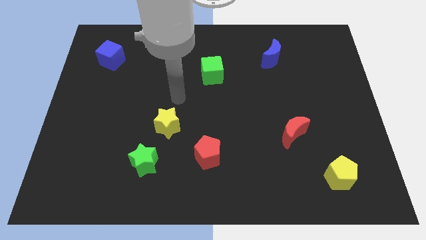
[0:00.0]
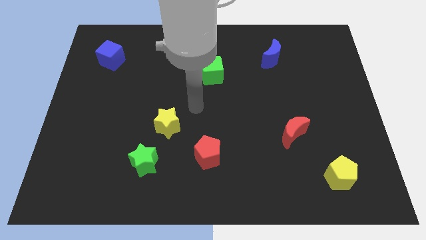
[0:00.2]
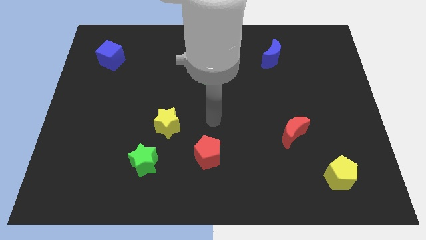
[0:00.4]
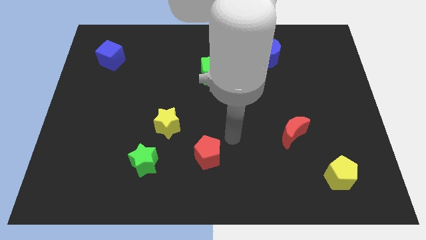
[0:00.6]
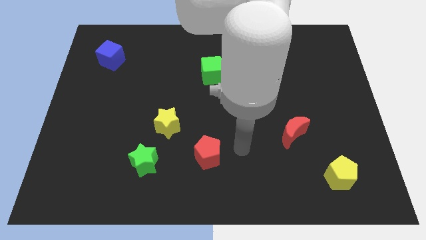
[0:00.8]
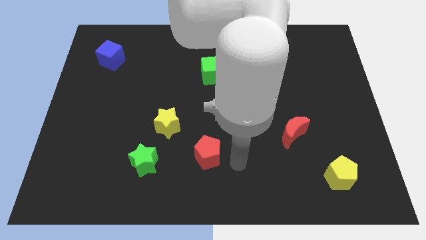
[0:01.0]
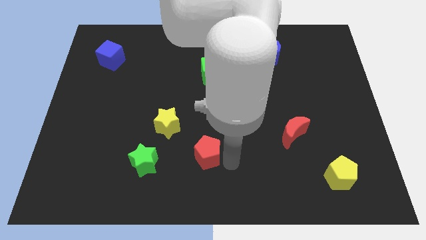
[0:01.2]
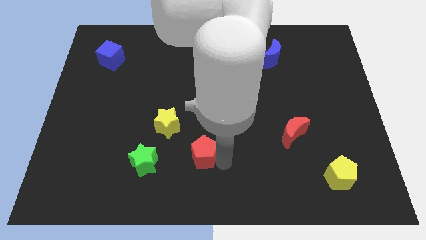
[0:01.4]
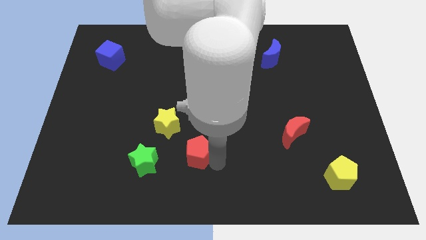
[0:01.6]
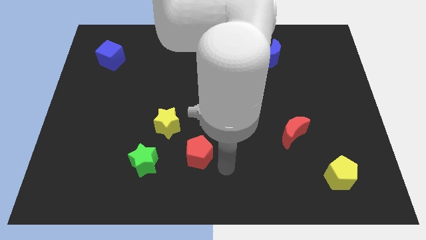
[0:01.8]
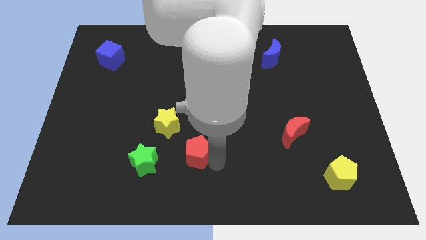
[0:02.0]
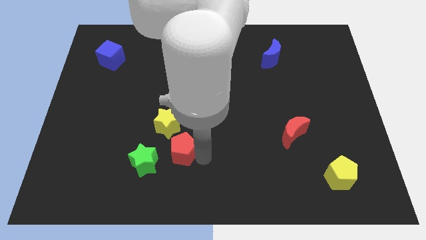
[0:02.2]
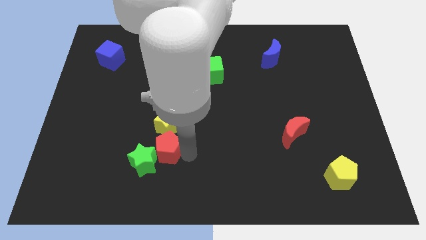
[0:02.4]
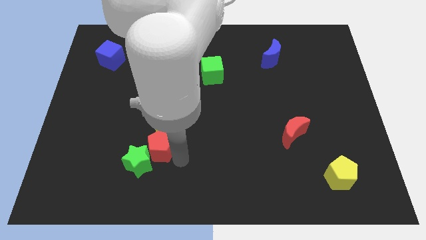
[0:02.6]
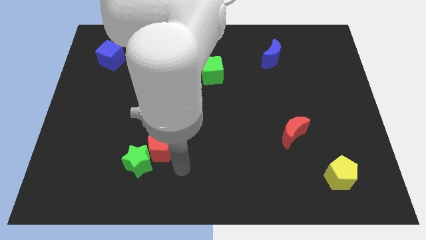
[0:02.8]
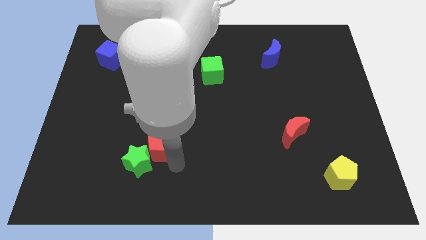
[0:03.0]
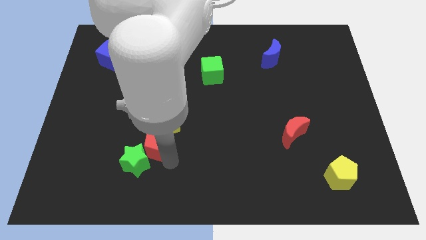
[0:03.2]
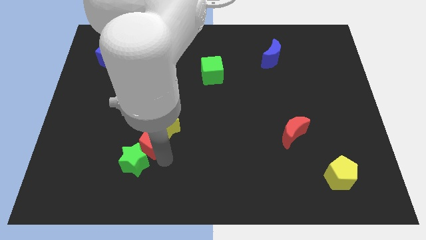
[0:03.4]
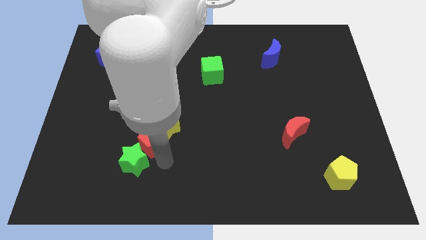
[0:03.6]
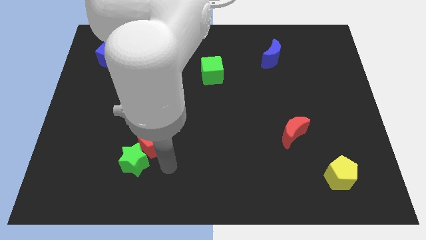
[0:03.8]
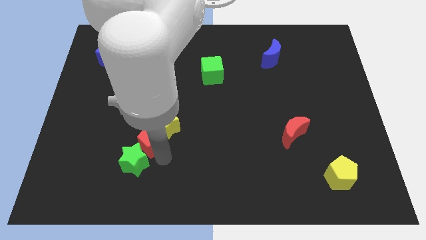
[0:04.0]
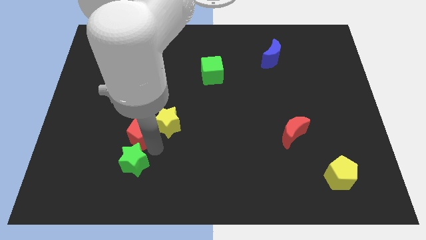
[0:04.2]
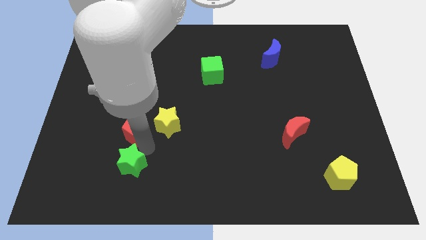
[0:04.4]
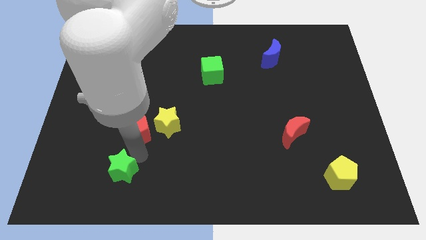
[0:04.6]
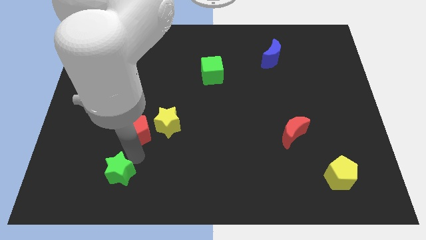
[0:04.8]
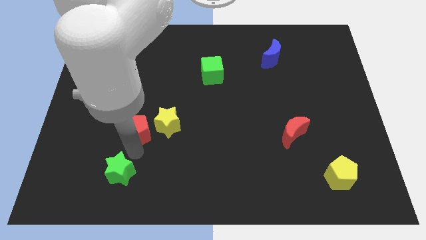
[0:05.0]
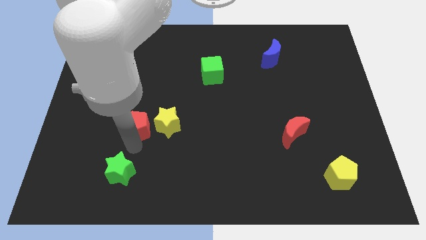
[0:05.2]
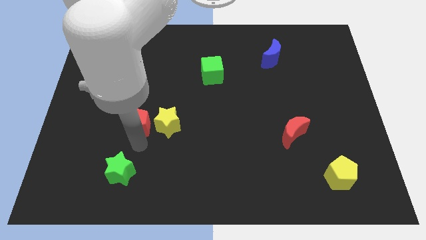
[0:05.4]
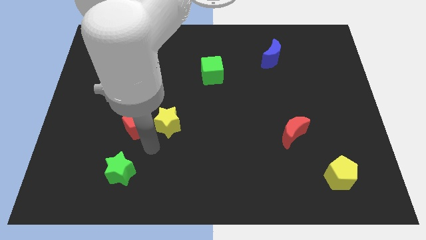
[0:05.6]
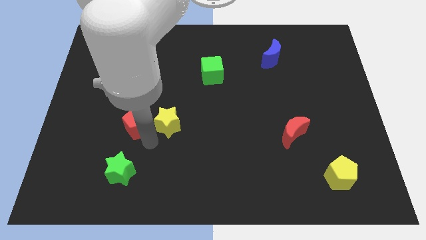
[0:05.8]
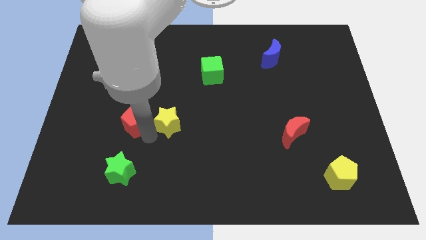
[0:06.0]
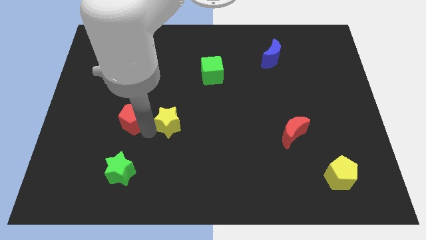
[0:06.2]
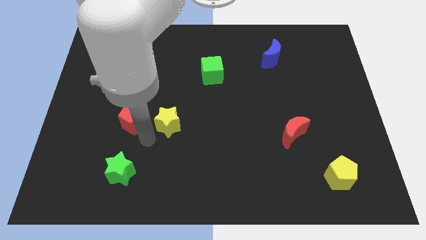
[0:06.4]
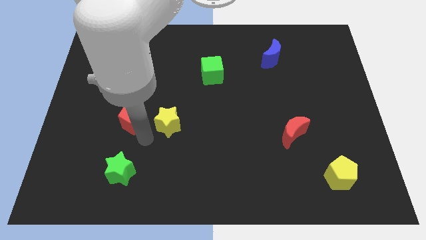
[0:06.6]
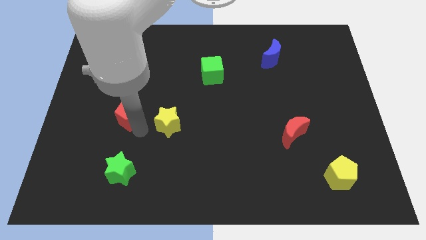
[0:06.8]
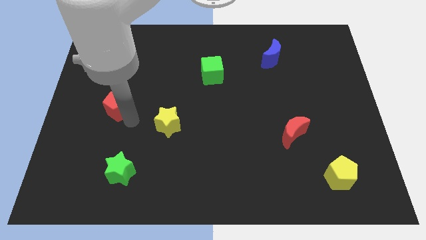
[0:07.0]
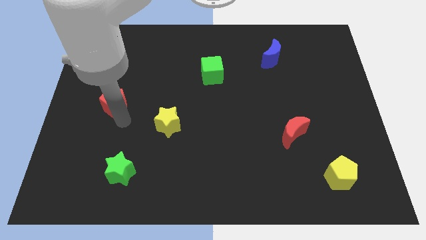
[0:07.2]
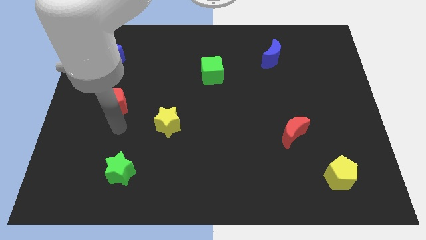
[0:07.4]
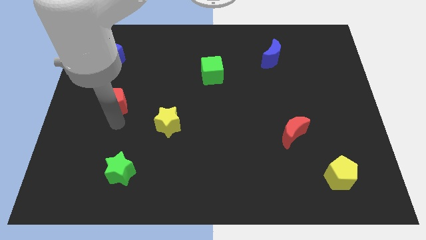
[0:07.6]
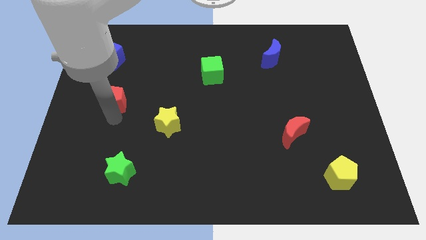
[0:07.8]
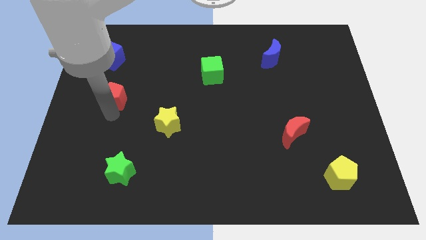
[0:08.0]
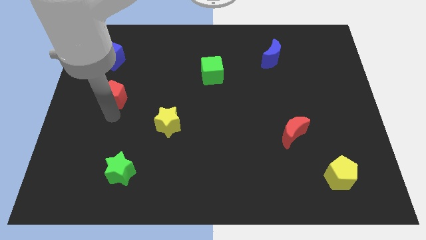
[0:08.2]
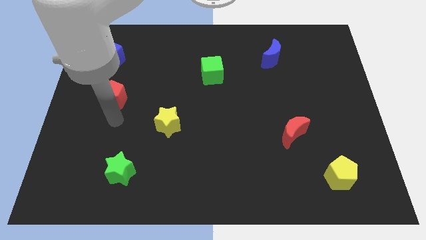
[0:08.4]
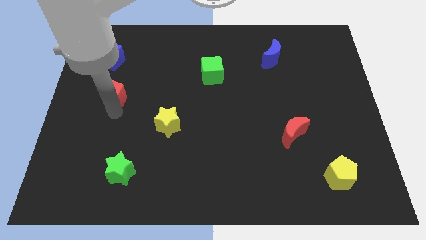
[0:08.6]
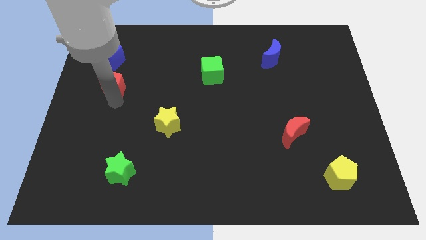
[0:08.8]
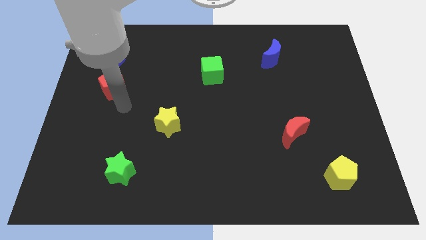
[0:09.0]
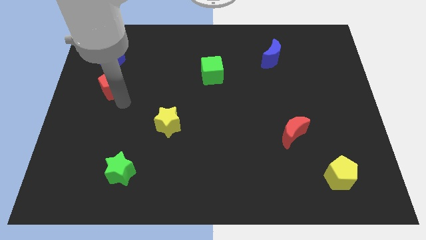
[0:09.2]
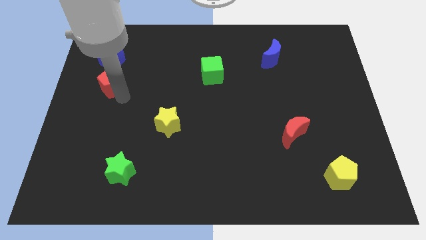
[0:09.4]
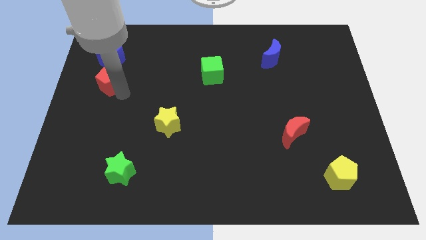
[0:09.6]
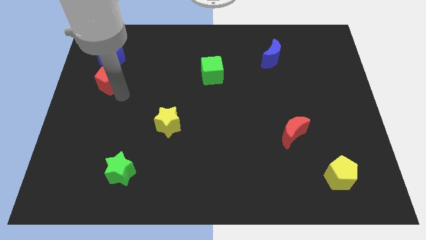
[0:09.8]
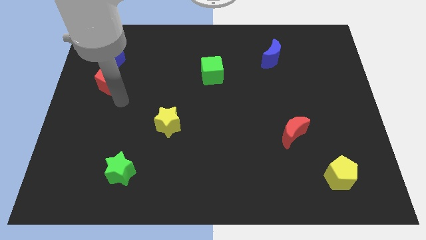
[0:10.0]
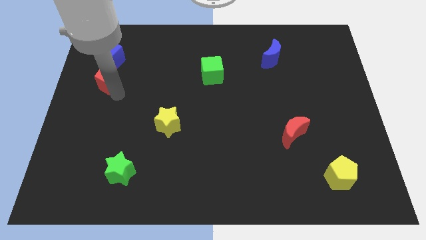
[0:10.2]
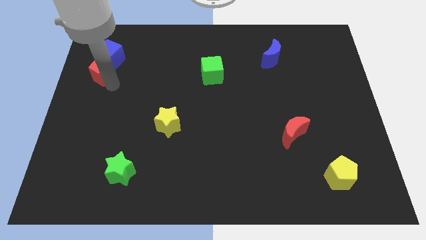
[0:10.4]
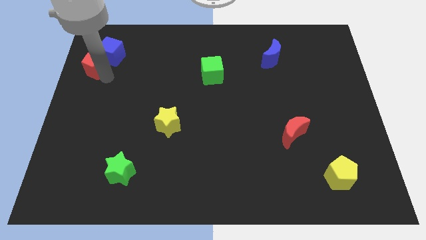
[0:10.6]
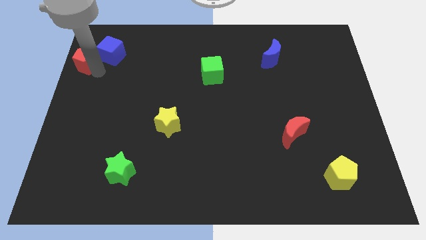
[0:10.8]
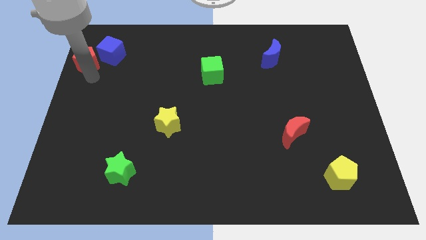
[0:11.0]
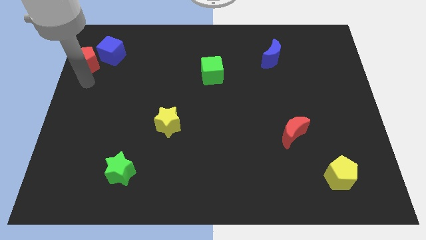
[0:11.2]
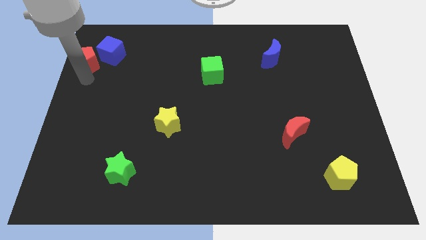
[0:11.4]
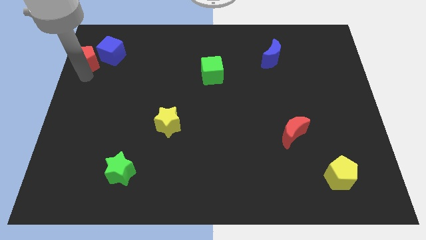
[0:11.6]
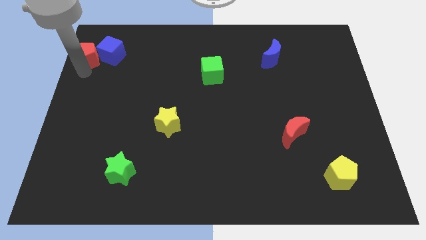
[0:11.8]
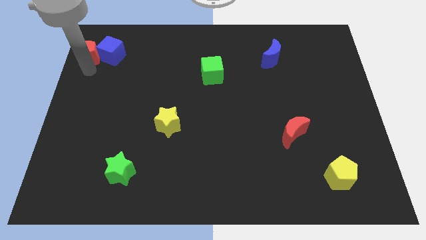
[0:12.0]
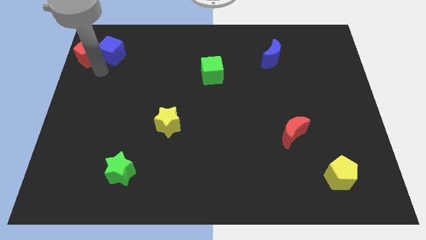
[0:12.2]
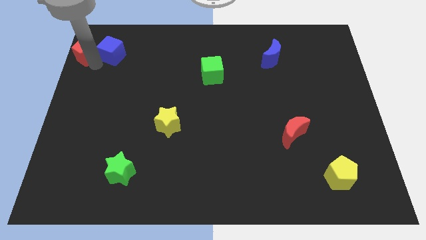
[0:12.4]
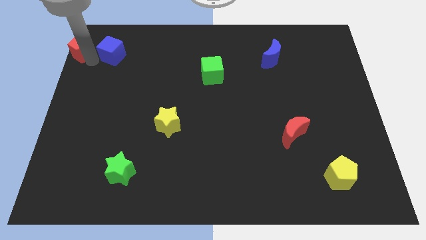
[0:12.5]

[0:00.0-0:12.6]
put the red pentagon to the top left corner
